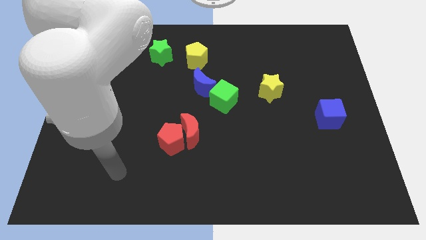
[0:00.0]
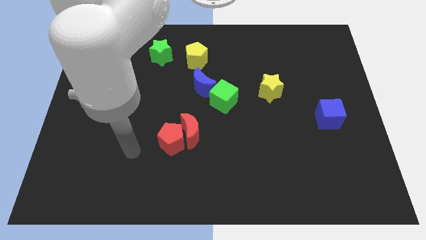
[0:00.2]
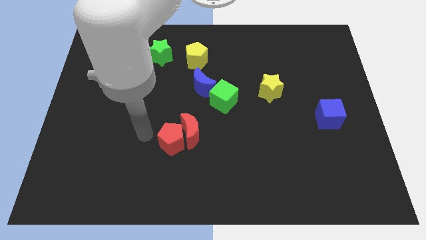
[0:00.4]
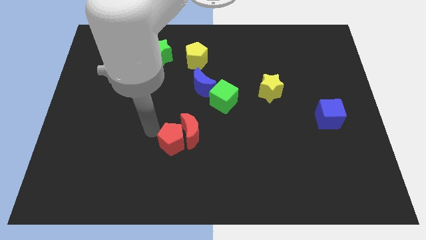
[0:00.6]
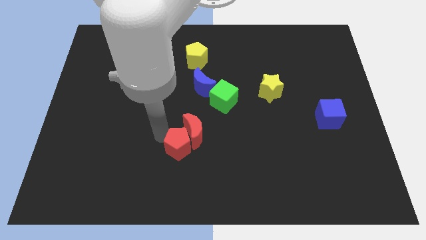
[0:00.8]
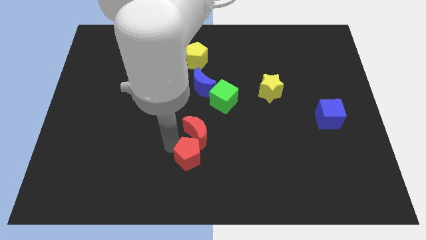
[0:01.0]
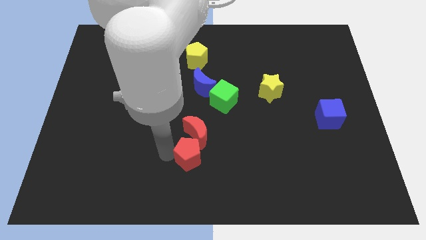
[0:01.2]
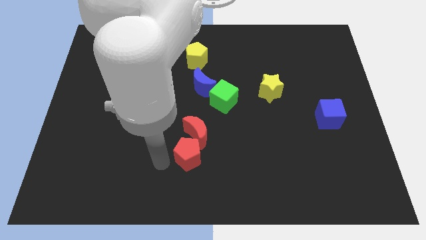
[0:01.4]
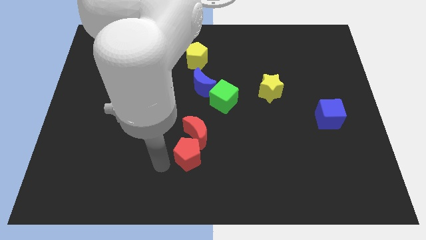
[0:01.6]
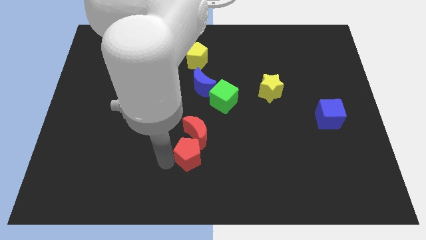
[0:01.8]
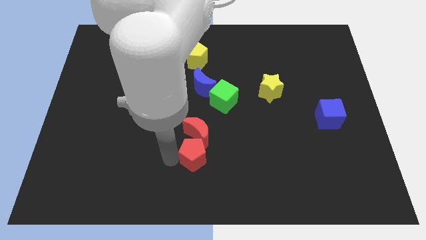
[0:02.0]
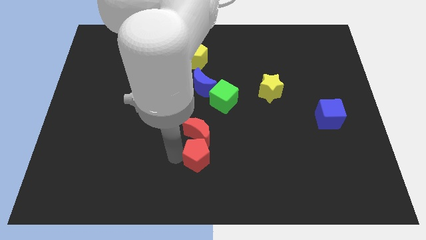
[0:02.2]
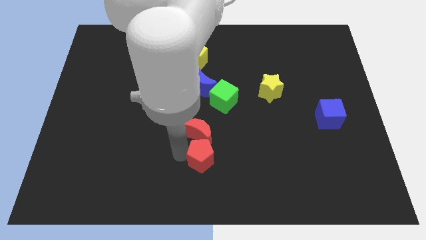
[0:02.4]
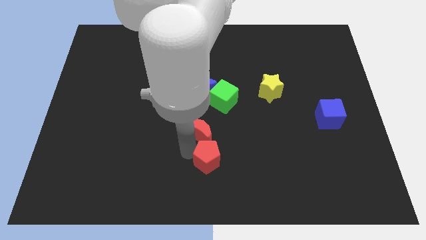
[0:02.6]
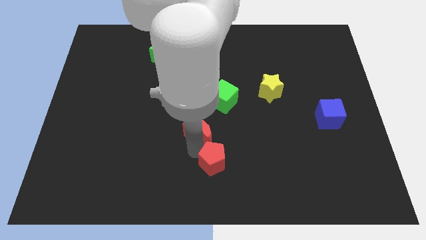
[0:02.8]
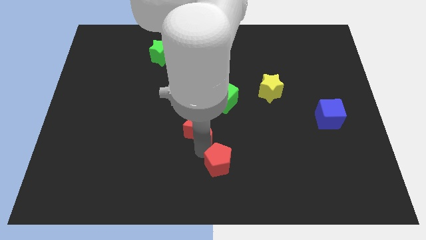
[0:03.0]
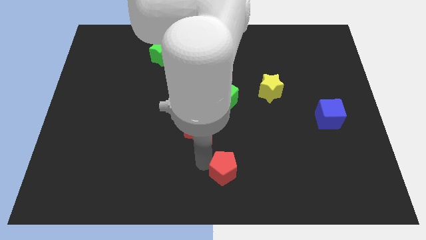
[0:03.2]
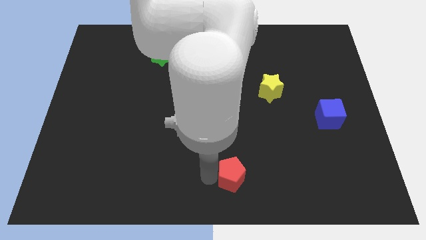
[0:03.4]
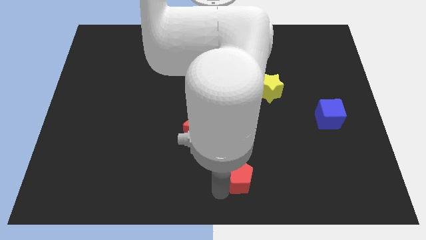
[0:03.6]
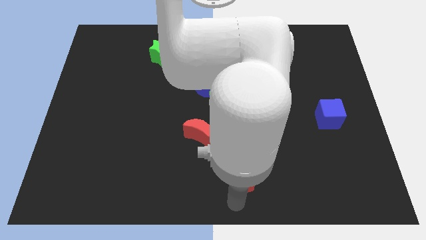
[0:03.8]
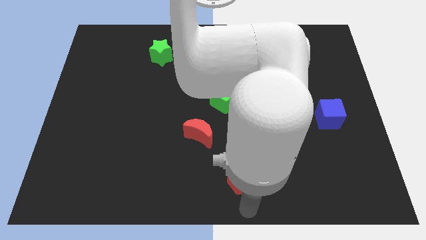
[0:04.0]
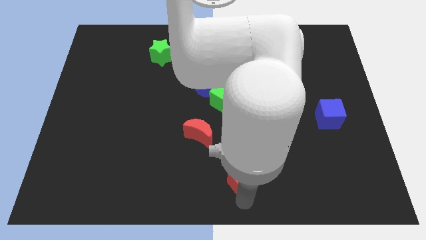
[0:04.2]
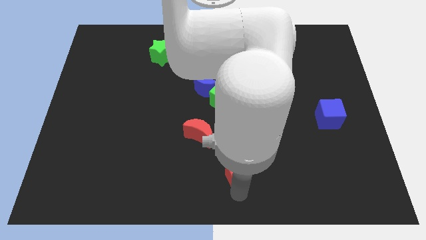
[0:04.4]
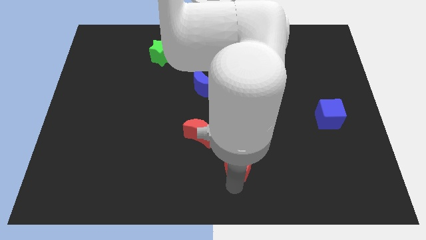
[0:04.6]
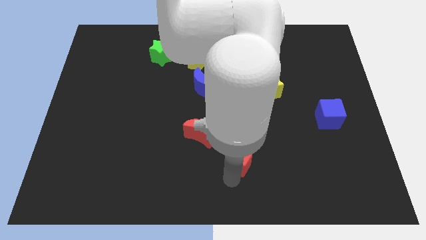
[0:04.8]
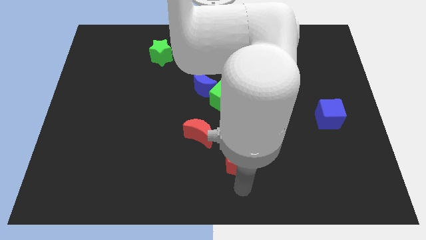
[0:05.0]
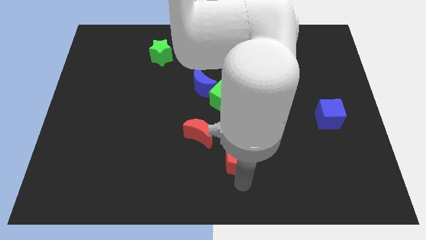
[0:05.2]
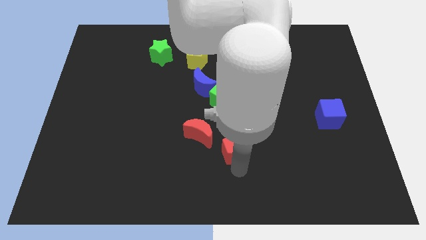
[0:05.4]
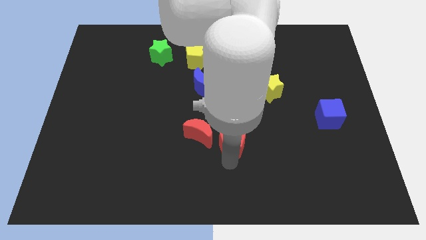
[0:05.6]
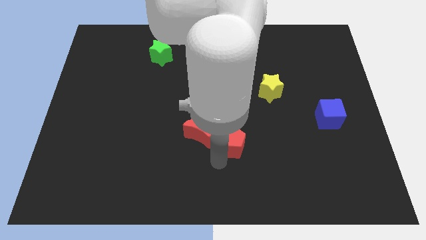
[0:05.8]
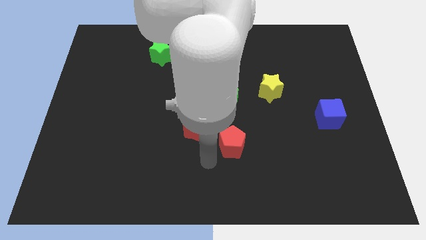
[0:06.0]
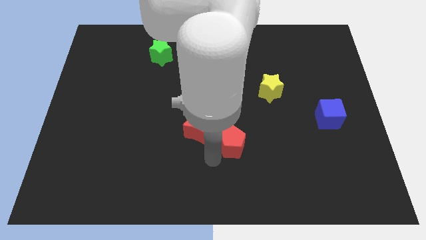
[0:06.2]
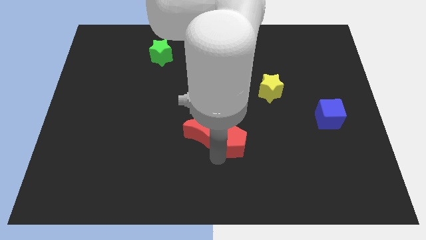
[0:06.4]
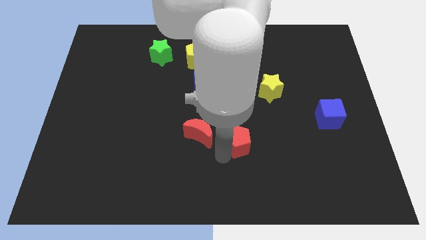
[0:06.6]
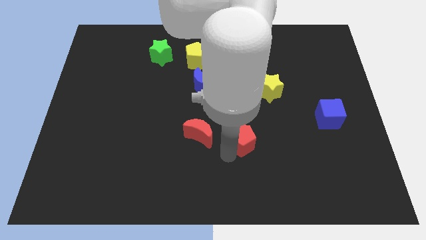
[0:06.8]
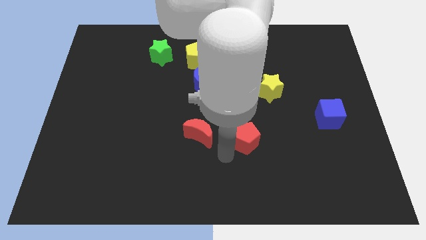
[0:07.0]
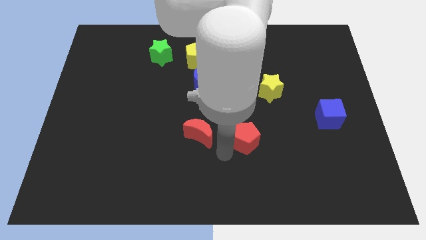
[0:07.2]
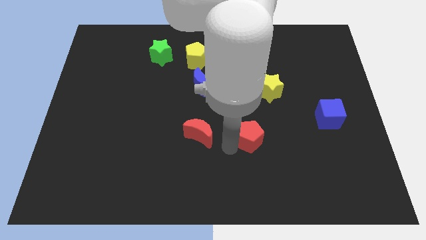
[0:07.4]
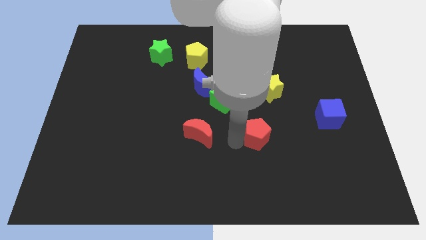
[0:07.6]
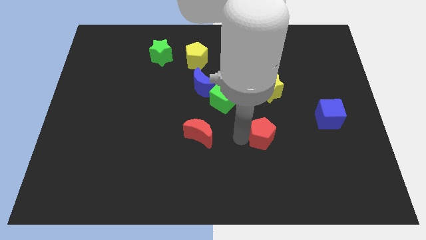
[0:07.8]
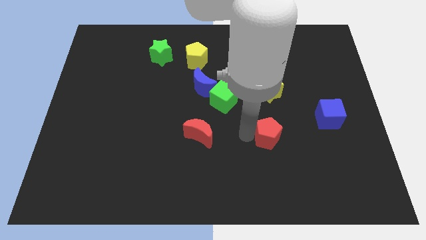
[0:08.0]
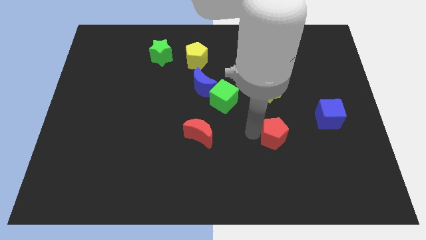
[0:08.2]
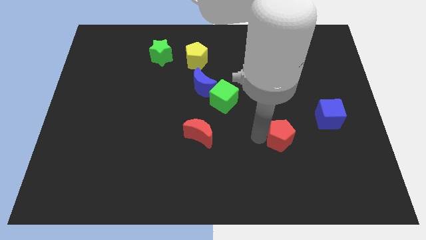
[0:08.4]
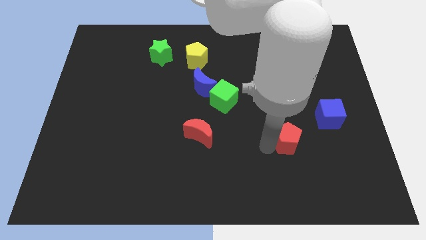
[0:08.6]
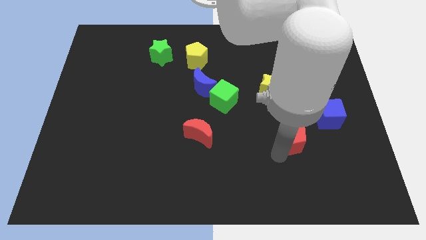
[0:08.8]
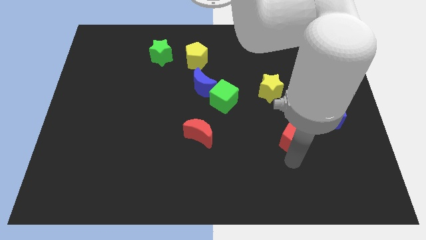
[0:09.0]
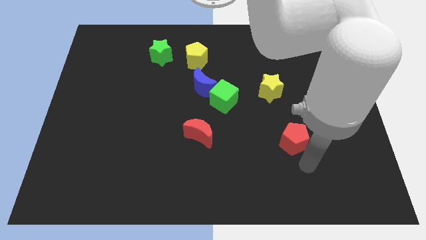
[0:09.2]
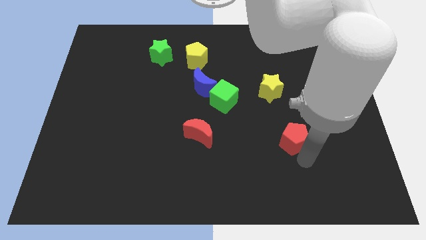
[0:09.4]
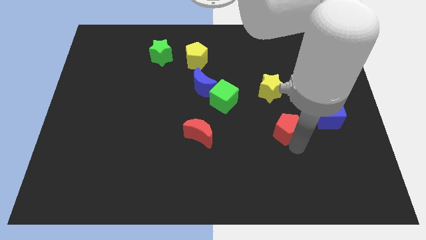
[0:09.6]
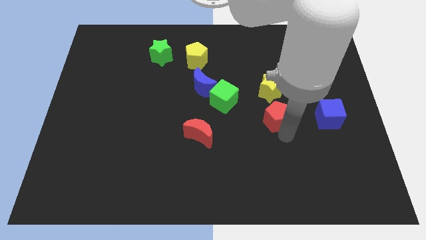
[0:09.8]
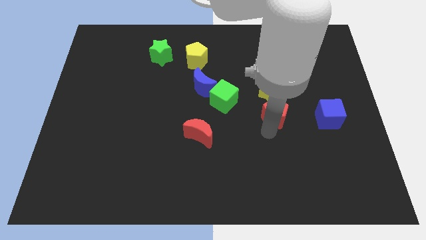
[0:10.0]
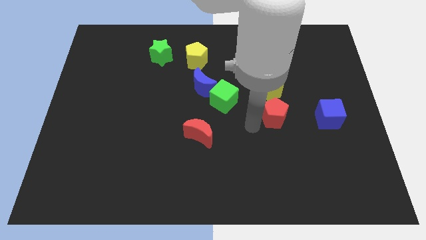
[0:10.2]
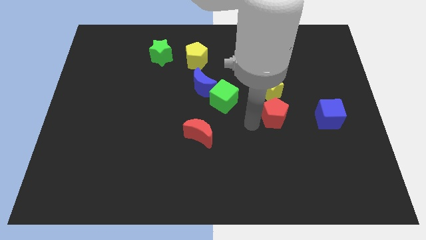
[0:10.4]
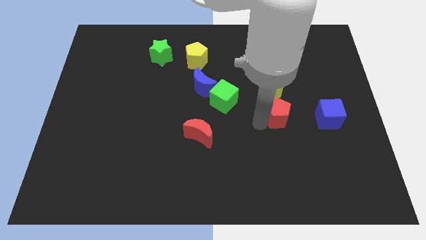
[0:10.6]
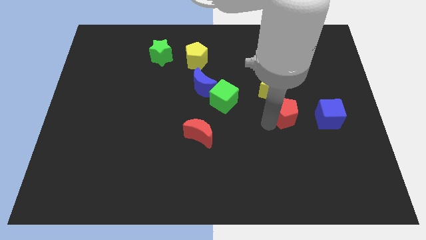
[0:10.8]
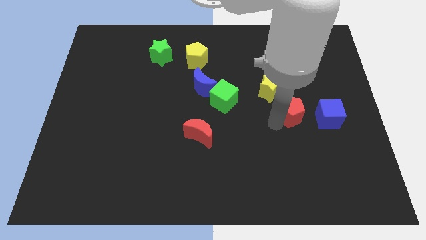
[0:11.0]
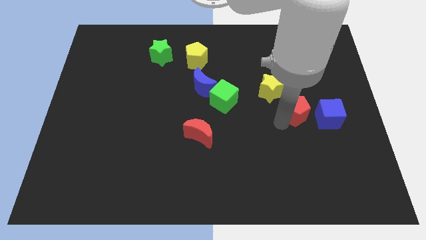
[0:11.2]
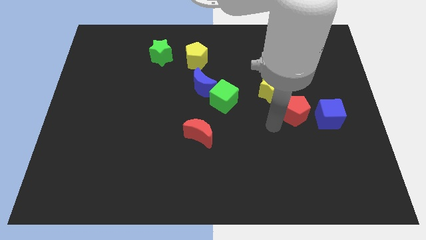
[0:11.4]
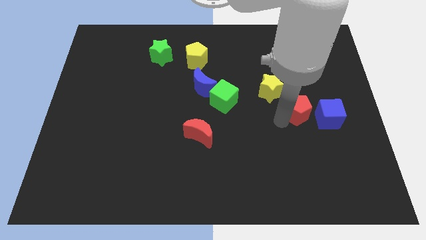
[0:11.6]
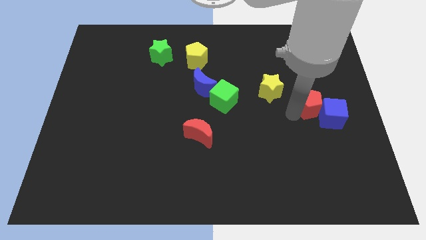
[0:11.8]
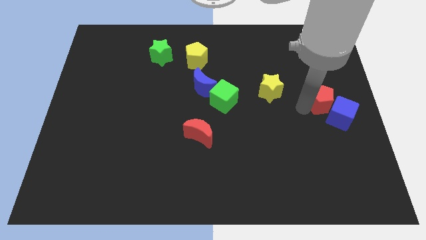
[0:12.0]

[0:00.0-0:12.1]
put the red pentagon to the center right

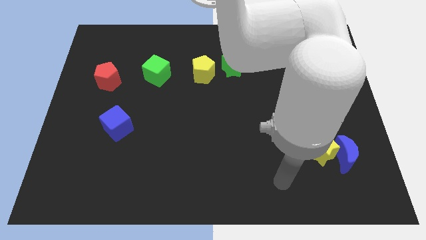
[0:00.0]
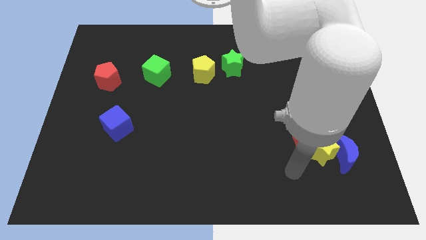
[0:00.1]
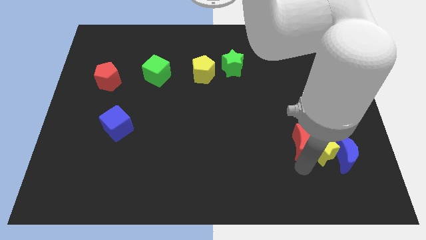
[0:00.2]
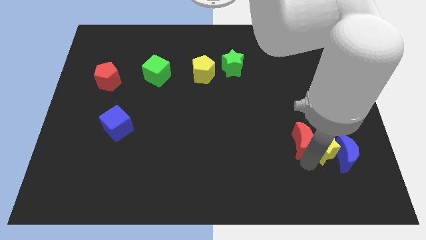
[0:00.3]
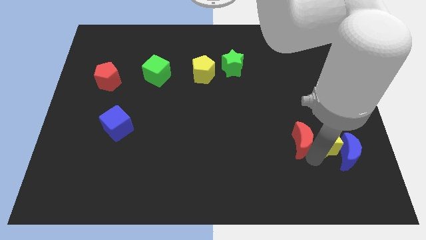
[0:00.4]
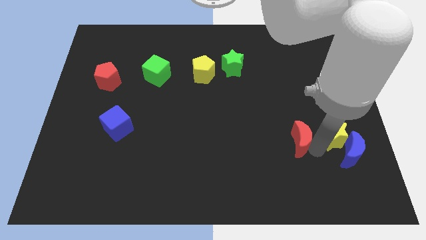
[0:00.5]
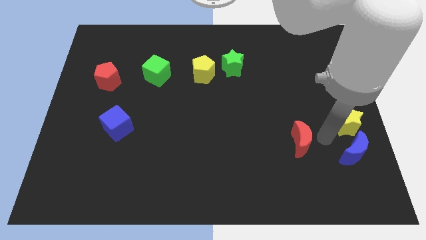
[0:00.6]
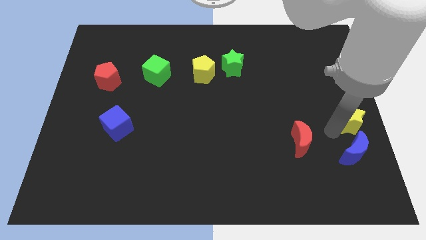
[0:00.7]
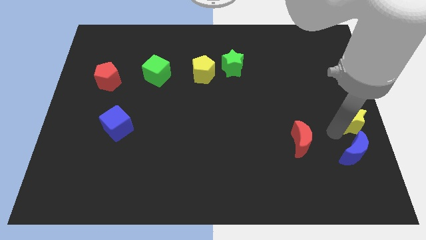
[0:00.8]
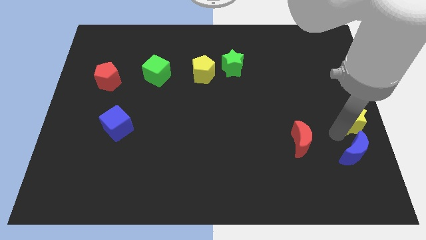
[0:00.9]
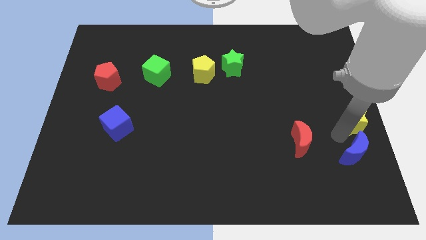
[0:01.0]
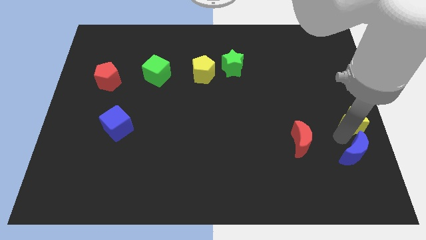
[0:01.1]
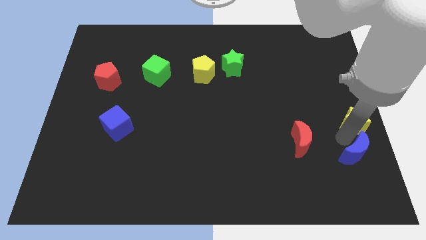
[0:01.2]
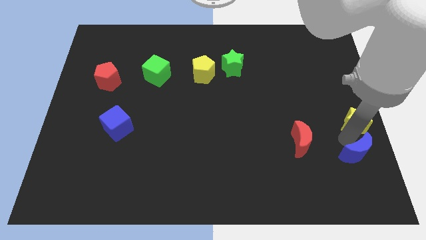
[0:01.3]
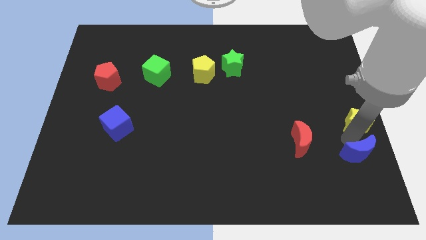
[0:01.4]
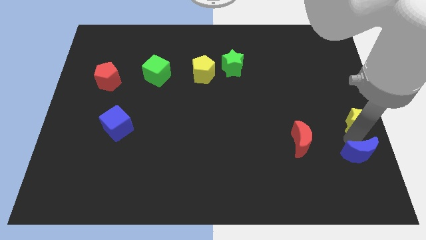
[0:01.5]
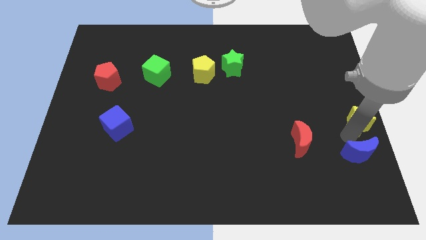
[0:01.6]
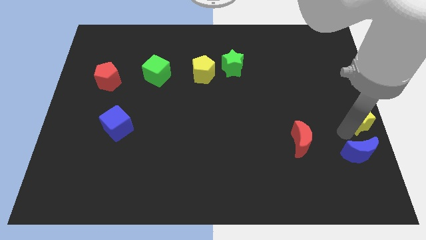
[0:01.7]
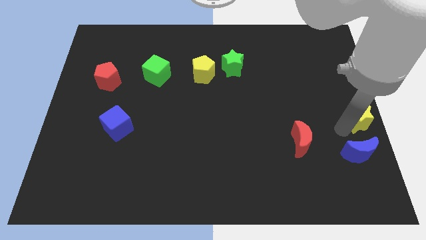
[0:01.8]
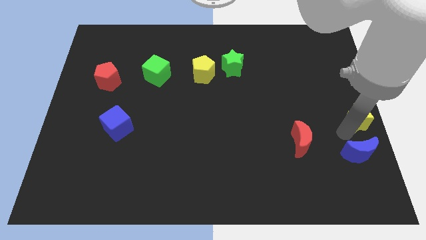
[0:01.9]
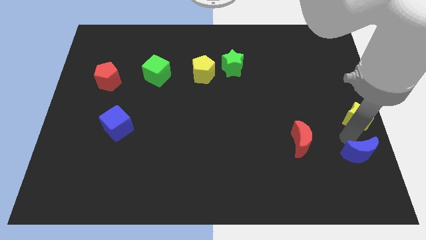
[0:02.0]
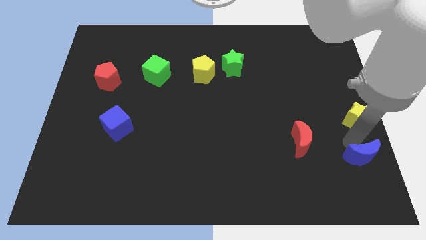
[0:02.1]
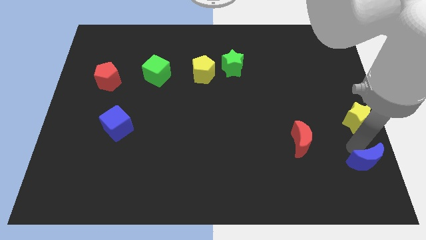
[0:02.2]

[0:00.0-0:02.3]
put the blue moon to the lower right corner
